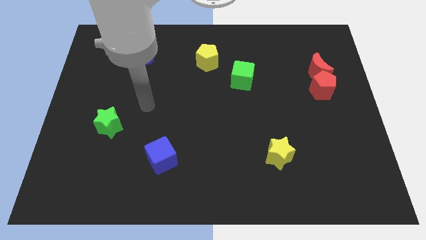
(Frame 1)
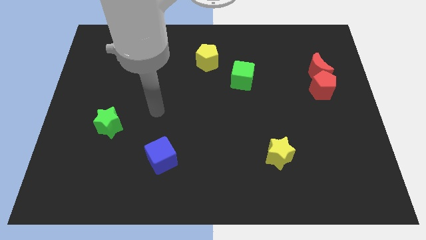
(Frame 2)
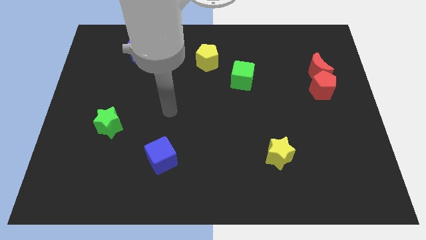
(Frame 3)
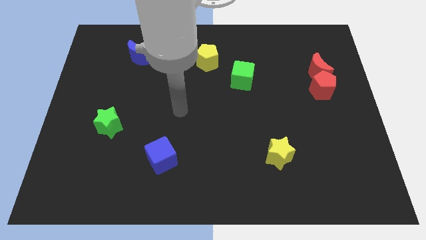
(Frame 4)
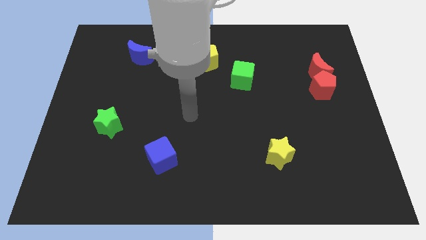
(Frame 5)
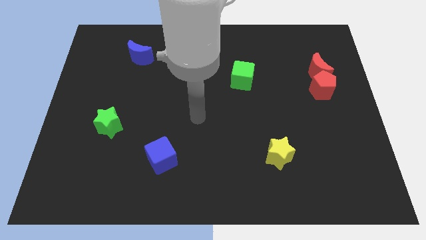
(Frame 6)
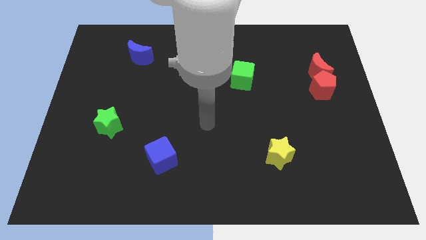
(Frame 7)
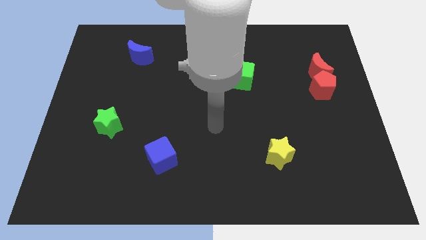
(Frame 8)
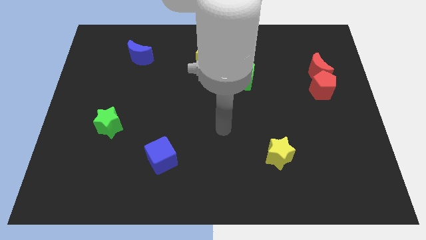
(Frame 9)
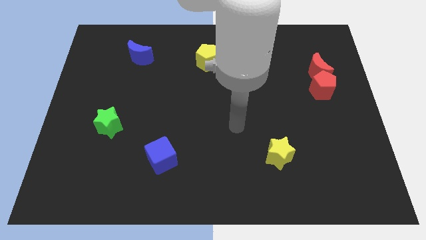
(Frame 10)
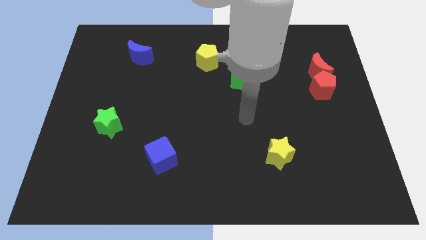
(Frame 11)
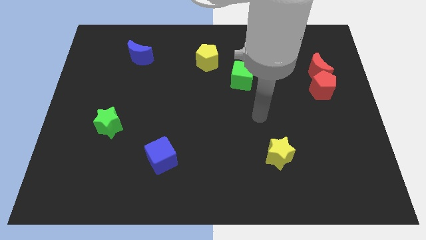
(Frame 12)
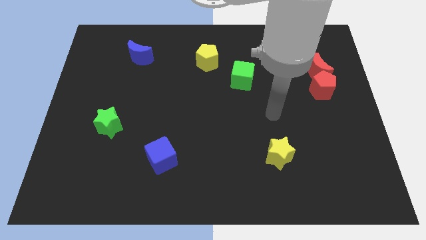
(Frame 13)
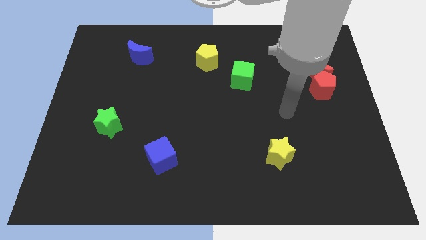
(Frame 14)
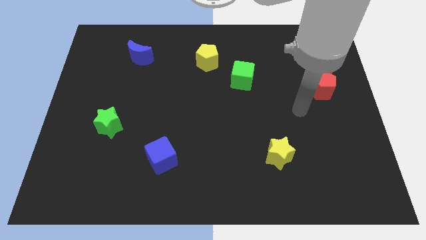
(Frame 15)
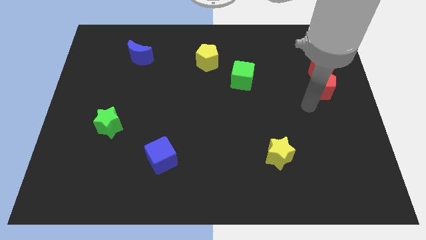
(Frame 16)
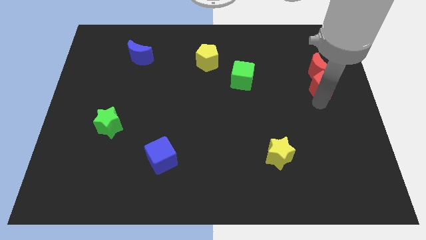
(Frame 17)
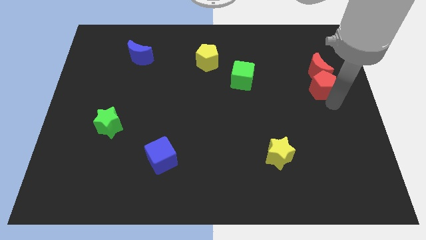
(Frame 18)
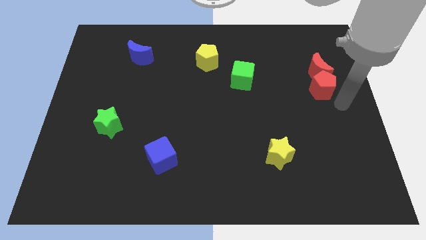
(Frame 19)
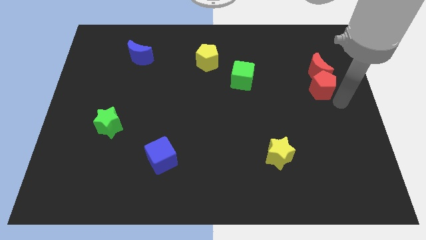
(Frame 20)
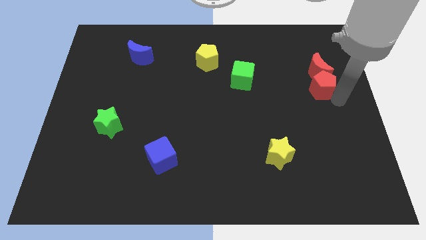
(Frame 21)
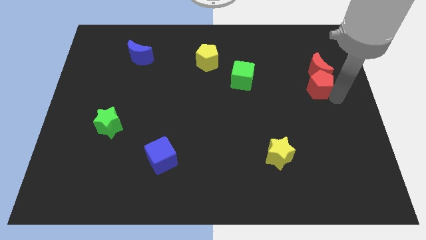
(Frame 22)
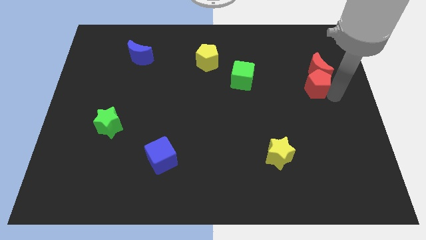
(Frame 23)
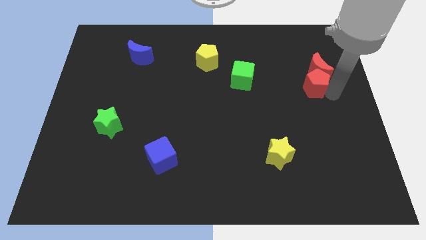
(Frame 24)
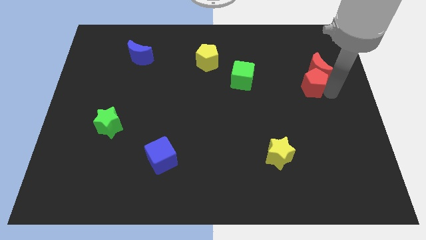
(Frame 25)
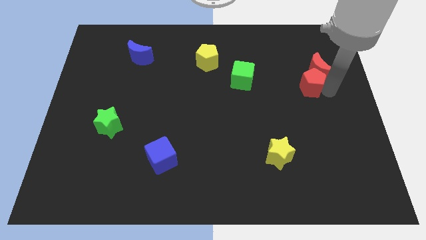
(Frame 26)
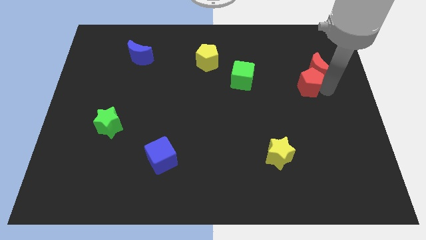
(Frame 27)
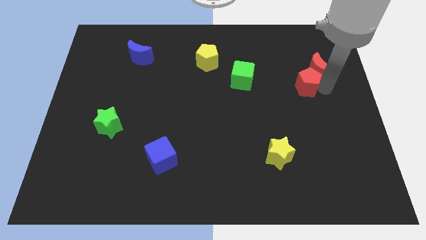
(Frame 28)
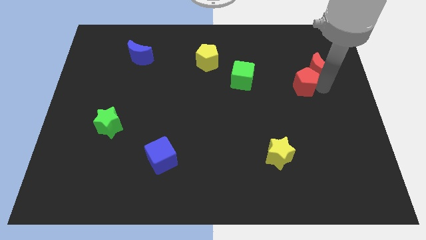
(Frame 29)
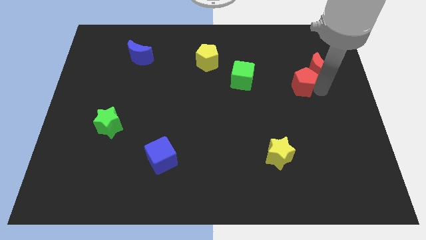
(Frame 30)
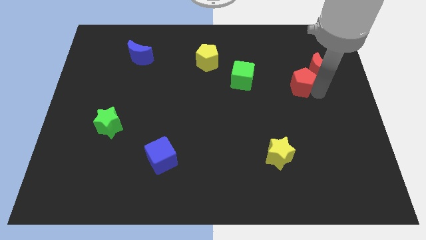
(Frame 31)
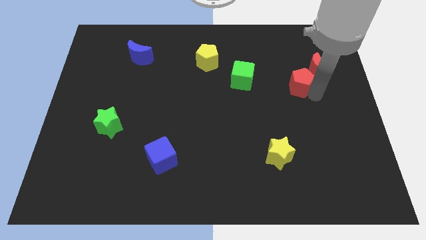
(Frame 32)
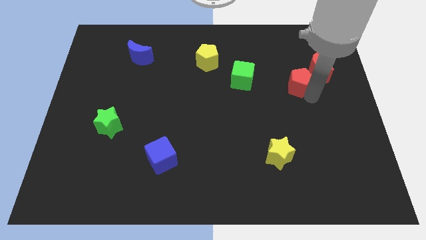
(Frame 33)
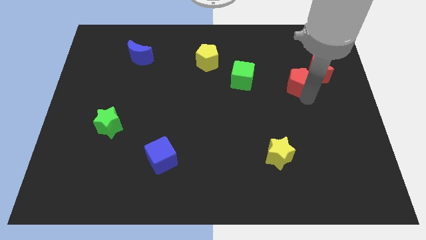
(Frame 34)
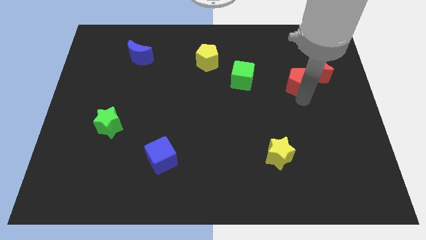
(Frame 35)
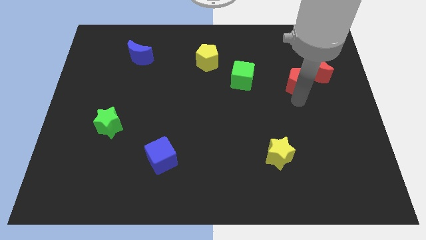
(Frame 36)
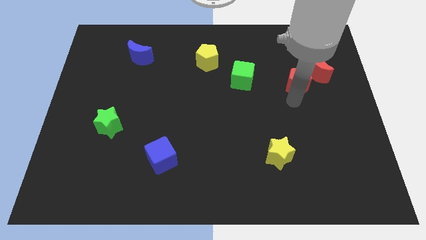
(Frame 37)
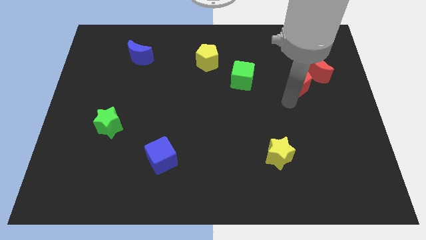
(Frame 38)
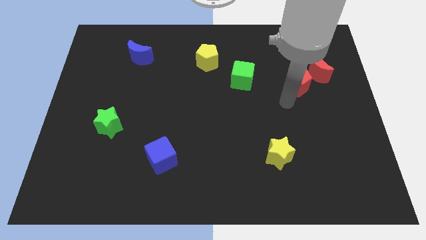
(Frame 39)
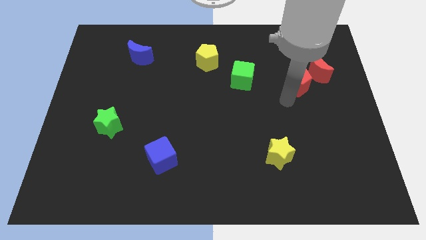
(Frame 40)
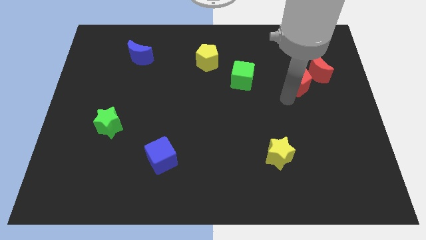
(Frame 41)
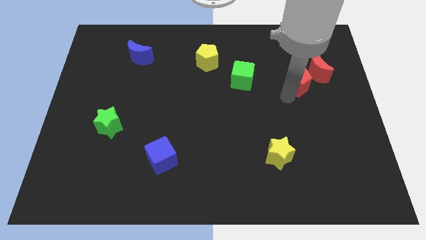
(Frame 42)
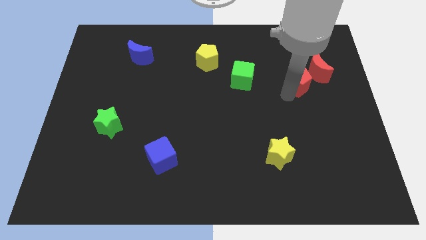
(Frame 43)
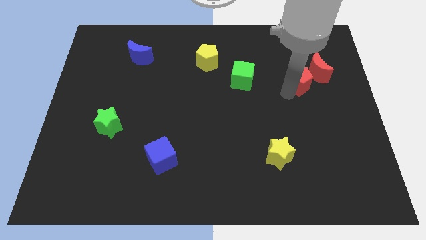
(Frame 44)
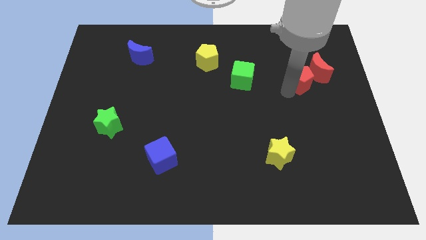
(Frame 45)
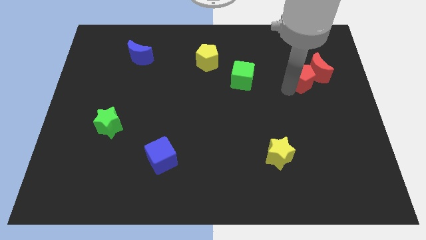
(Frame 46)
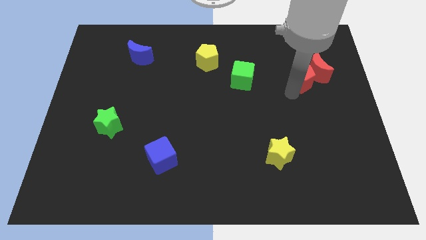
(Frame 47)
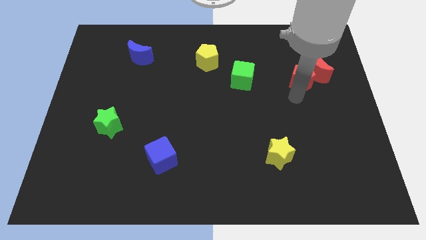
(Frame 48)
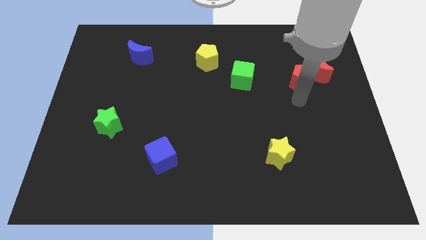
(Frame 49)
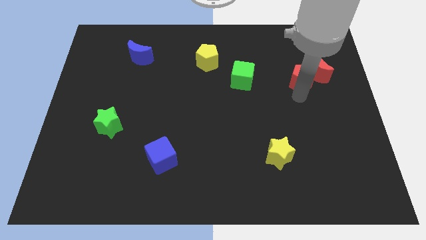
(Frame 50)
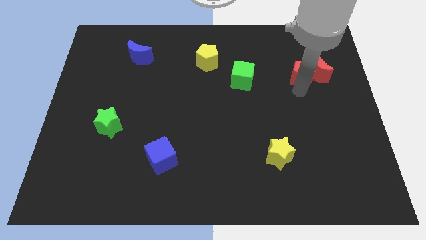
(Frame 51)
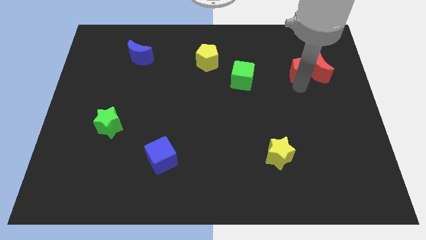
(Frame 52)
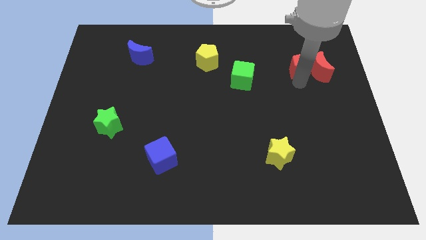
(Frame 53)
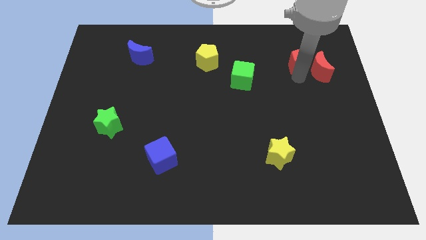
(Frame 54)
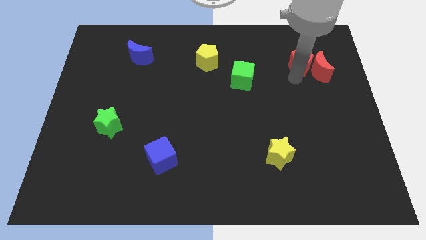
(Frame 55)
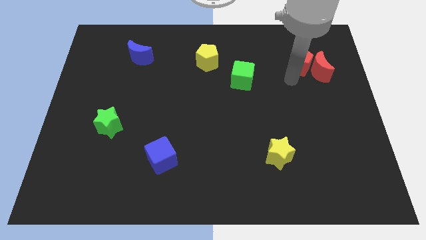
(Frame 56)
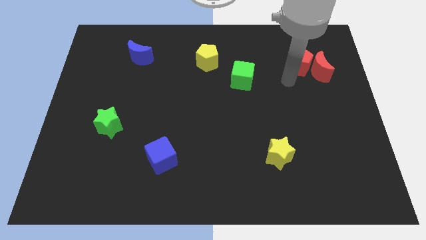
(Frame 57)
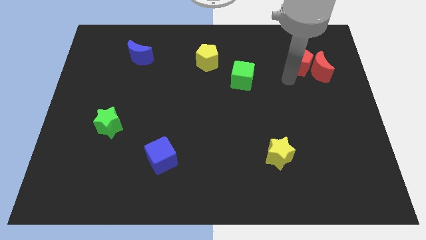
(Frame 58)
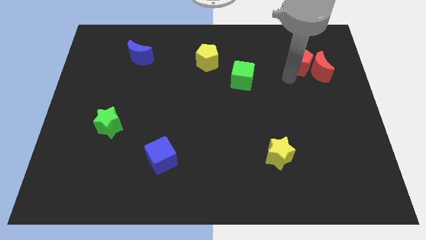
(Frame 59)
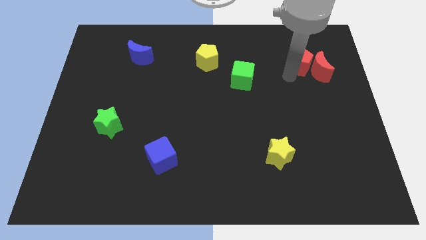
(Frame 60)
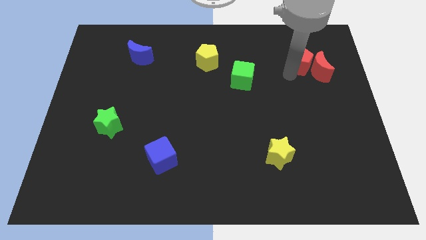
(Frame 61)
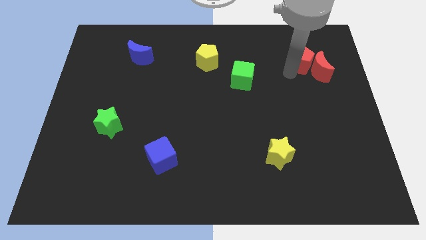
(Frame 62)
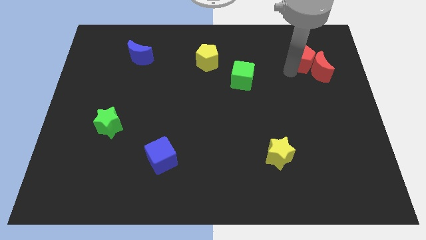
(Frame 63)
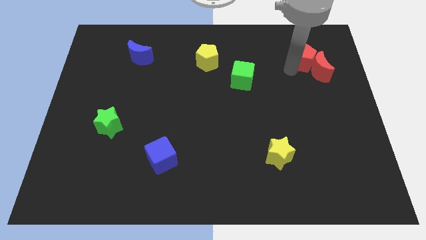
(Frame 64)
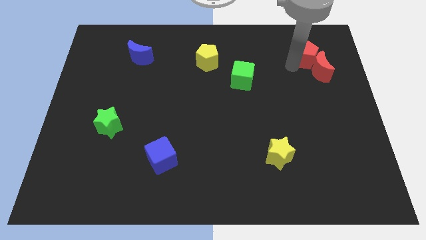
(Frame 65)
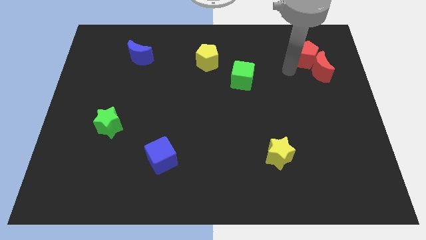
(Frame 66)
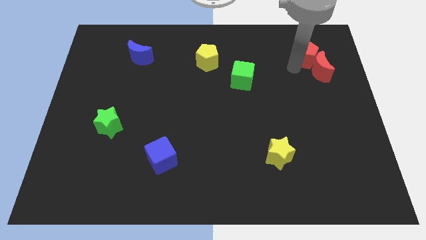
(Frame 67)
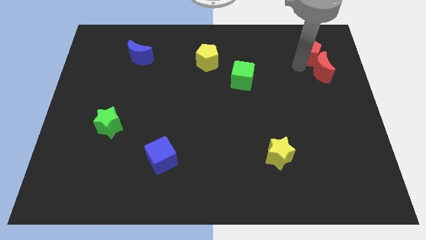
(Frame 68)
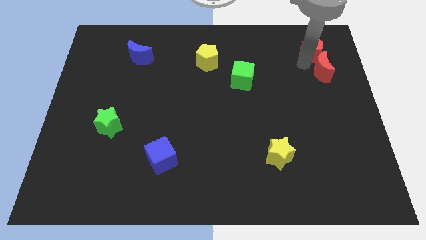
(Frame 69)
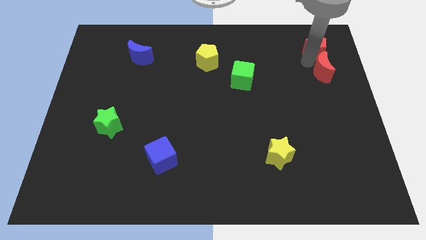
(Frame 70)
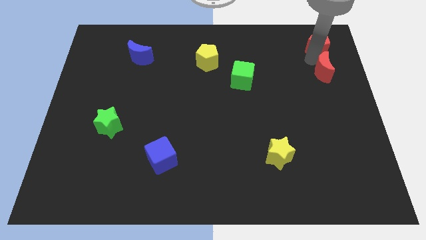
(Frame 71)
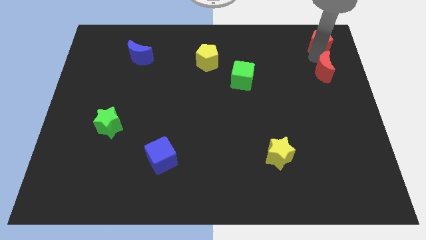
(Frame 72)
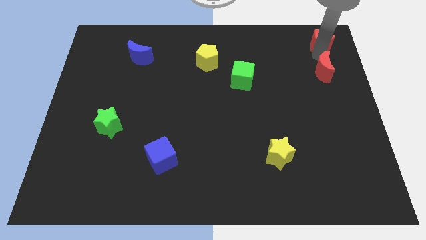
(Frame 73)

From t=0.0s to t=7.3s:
slide the red pentagon to the top right of the board

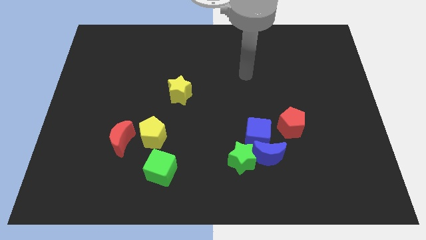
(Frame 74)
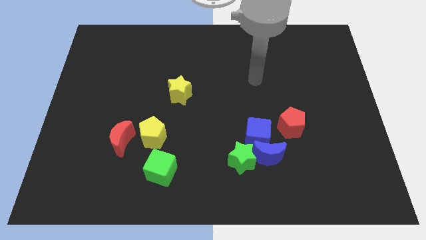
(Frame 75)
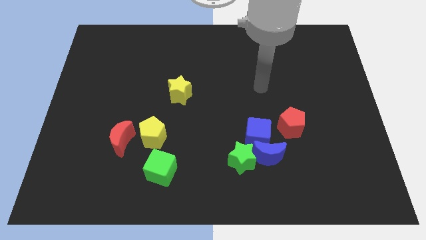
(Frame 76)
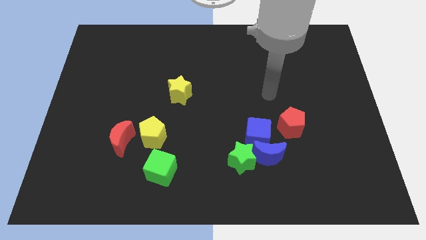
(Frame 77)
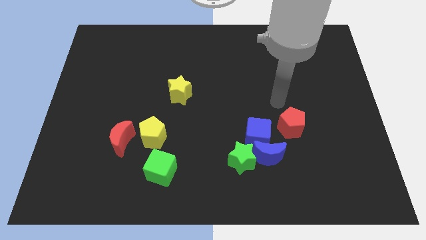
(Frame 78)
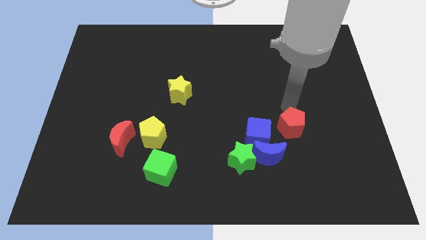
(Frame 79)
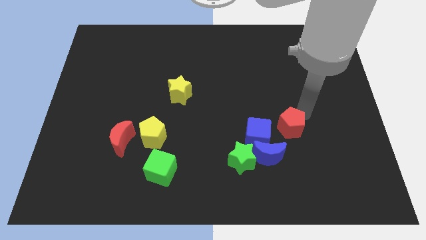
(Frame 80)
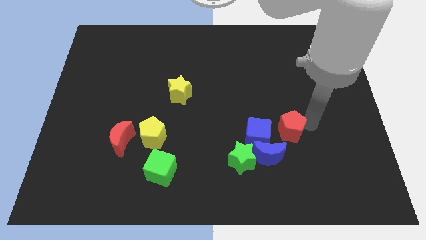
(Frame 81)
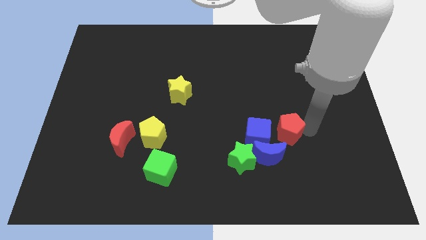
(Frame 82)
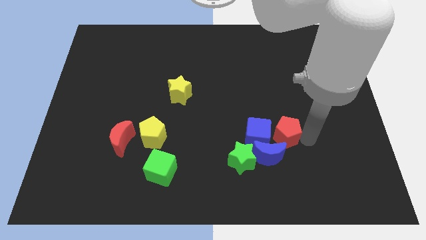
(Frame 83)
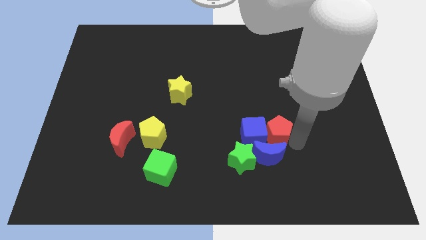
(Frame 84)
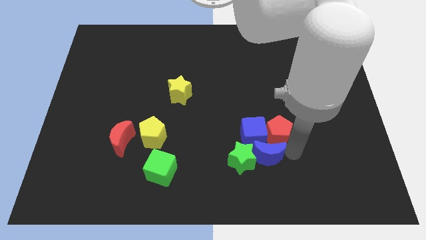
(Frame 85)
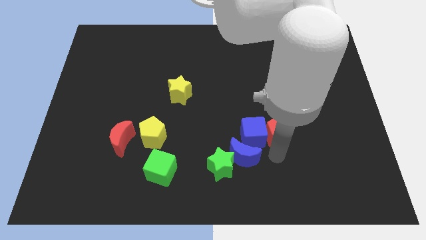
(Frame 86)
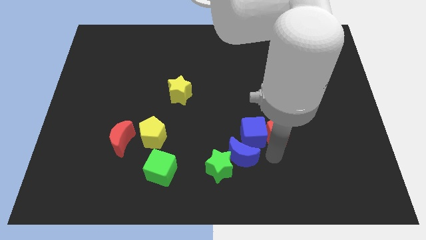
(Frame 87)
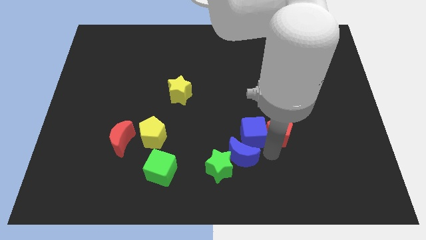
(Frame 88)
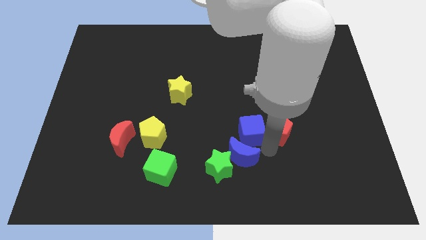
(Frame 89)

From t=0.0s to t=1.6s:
slide the blue cube to the center
